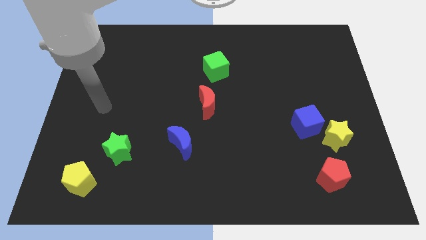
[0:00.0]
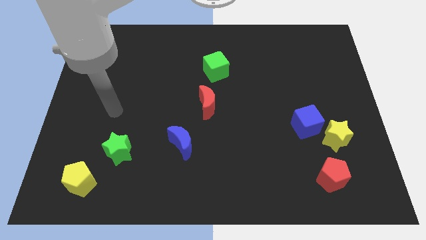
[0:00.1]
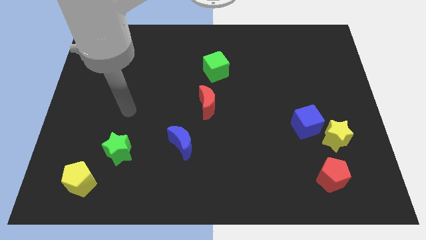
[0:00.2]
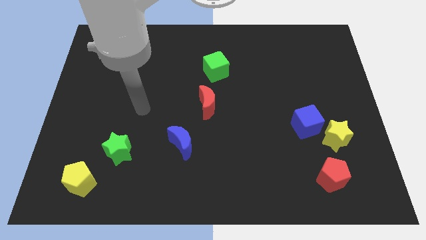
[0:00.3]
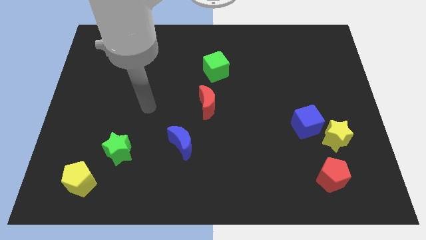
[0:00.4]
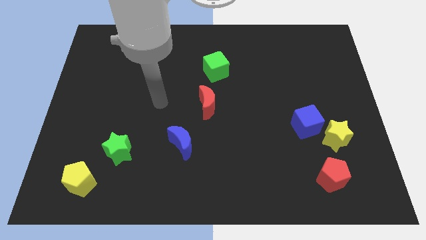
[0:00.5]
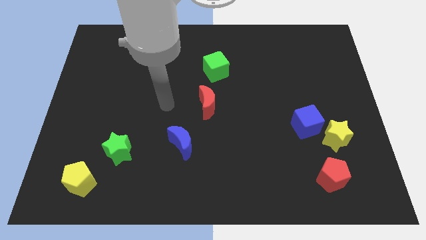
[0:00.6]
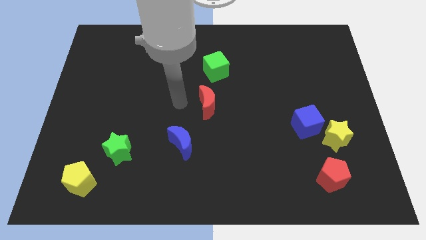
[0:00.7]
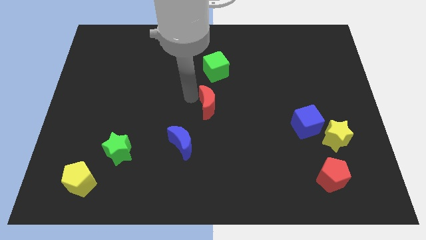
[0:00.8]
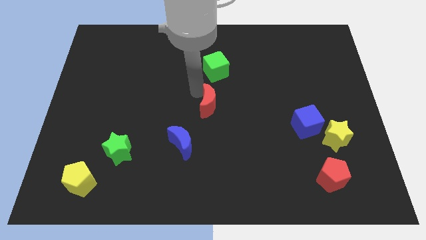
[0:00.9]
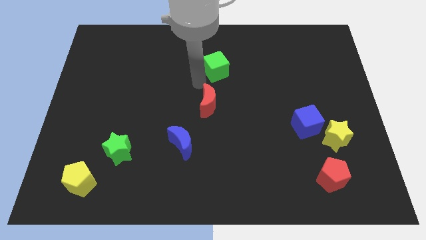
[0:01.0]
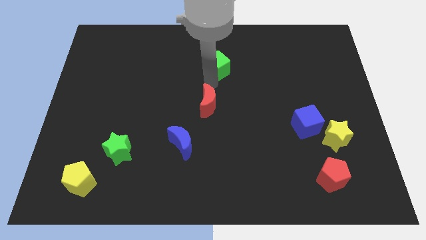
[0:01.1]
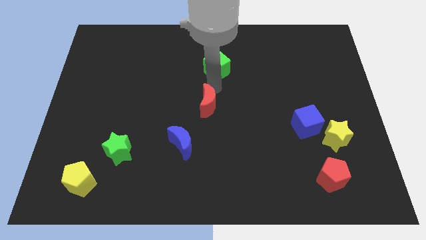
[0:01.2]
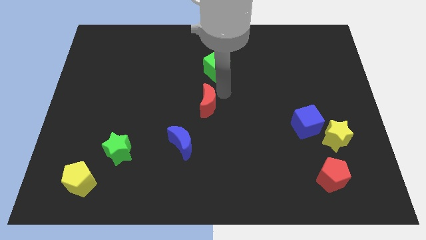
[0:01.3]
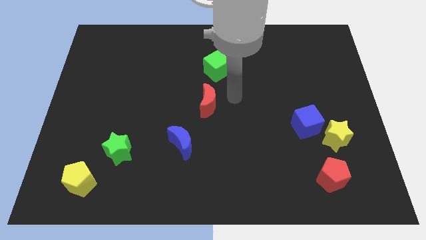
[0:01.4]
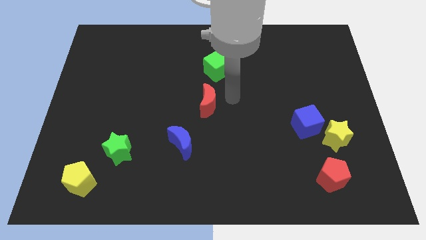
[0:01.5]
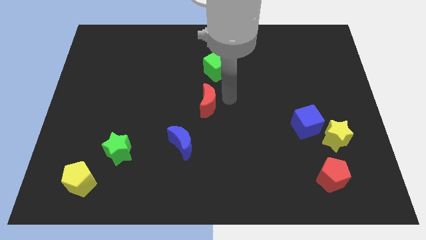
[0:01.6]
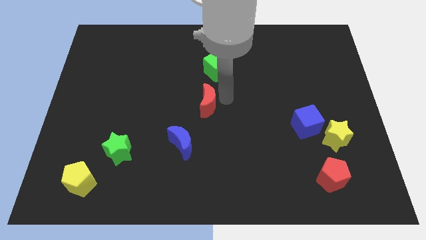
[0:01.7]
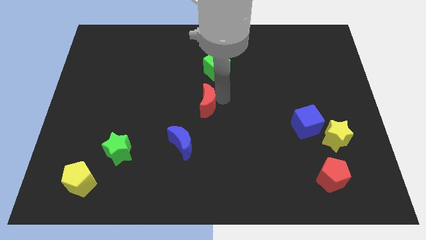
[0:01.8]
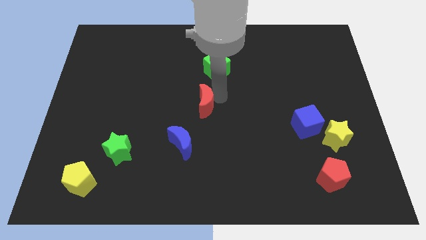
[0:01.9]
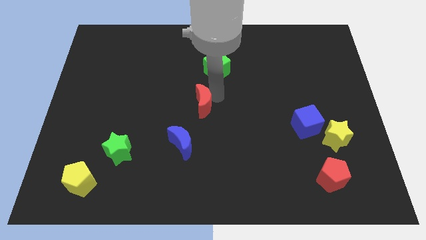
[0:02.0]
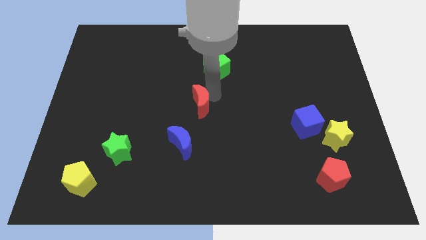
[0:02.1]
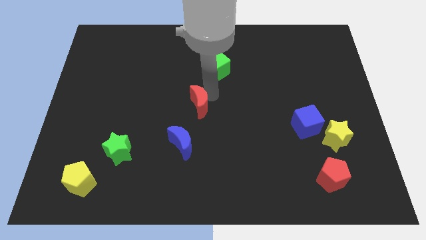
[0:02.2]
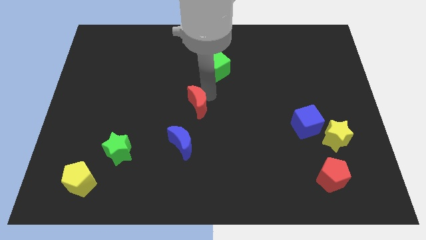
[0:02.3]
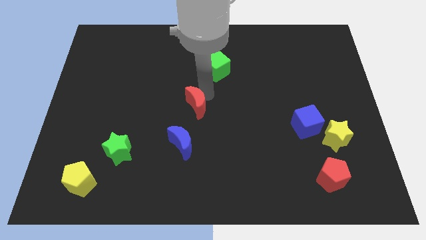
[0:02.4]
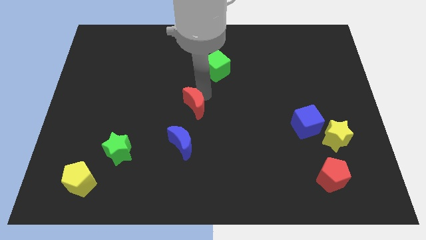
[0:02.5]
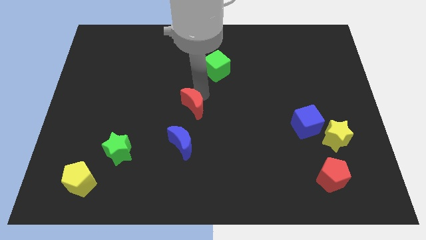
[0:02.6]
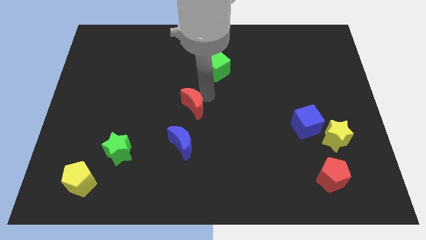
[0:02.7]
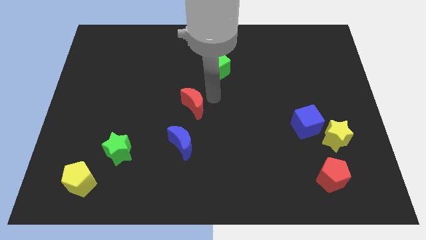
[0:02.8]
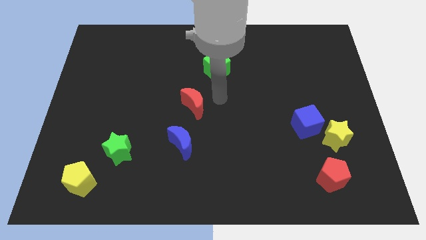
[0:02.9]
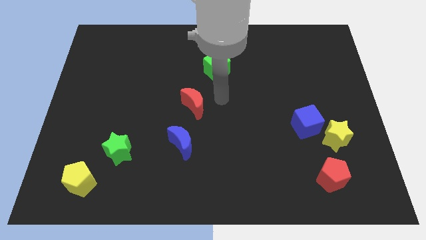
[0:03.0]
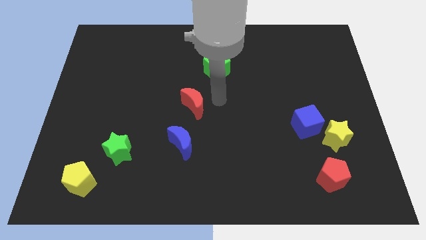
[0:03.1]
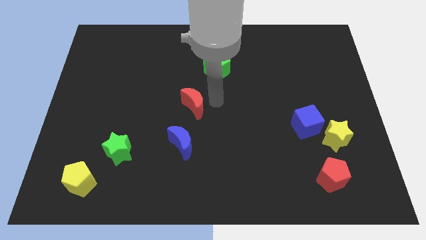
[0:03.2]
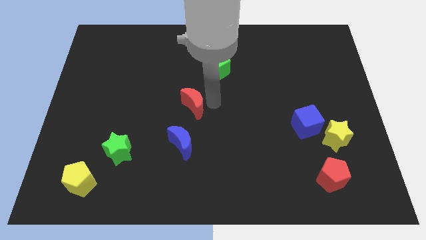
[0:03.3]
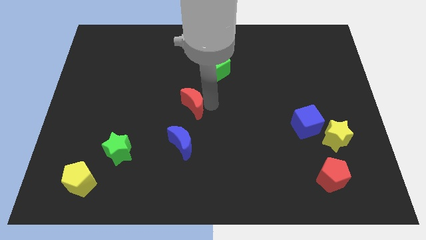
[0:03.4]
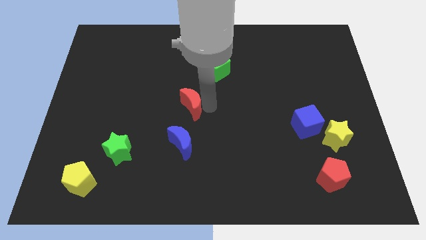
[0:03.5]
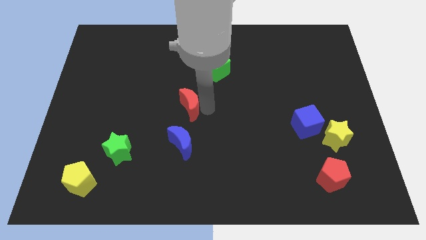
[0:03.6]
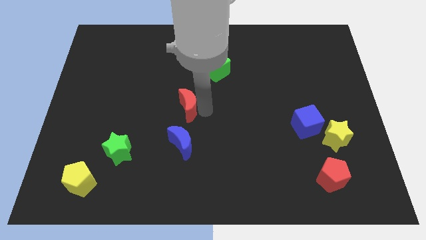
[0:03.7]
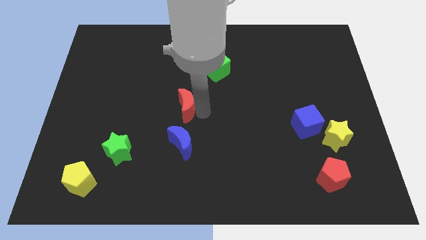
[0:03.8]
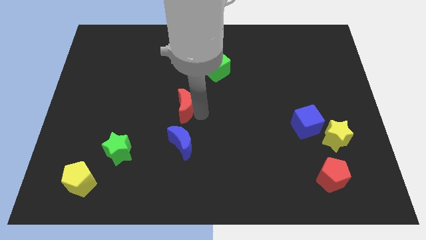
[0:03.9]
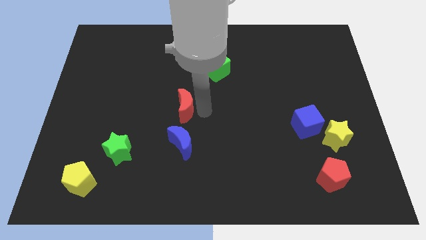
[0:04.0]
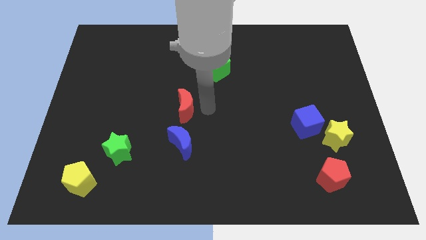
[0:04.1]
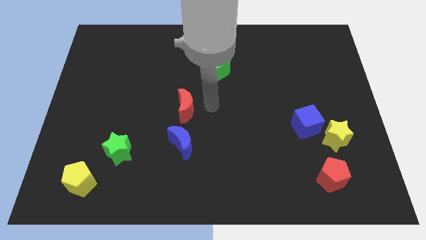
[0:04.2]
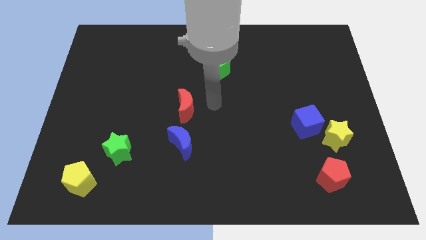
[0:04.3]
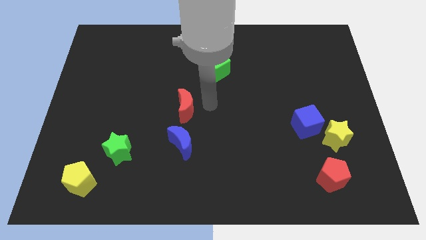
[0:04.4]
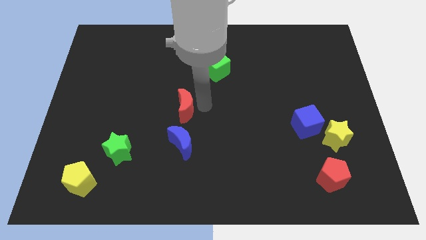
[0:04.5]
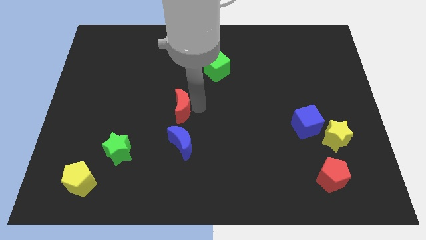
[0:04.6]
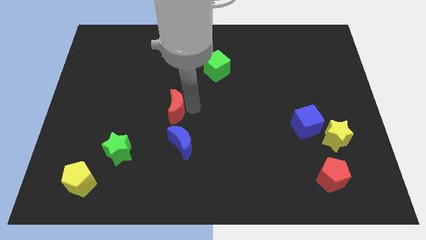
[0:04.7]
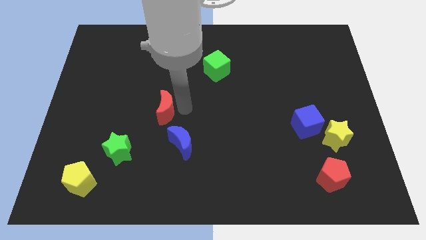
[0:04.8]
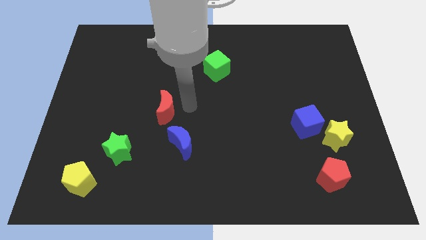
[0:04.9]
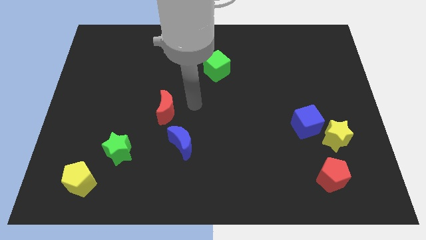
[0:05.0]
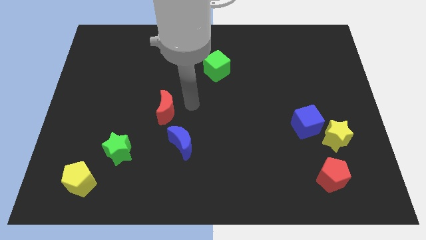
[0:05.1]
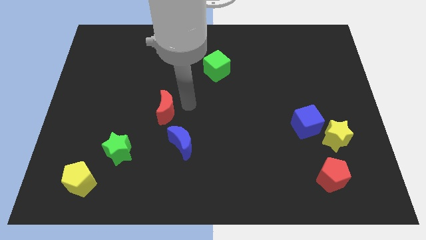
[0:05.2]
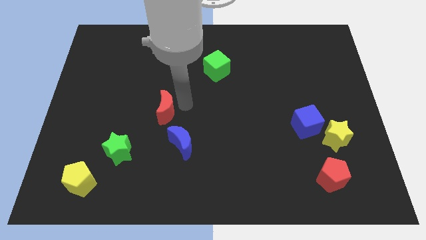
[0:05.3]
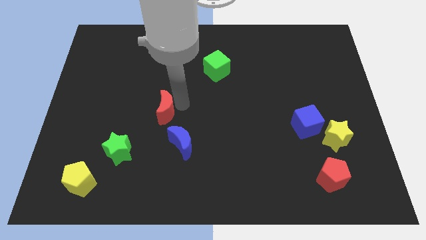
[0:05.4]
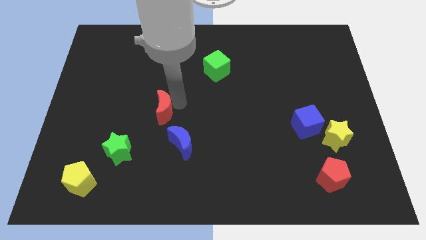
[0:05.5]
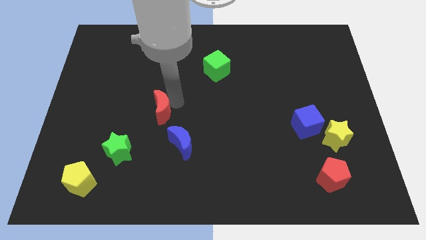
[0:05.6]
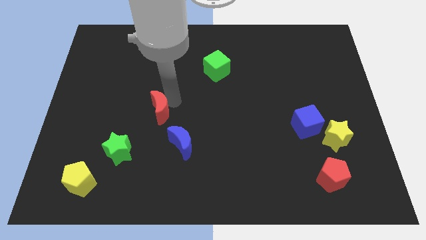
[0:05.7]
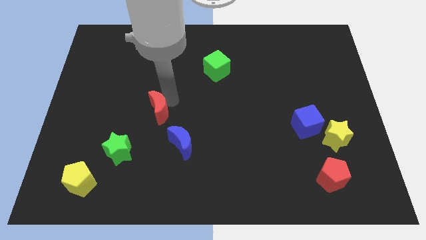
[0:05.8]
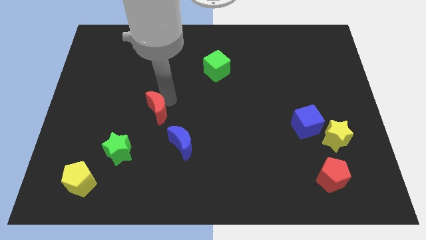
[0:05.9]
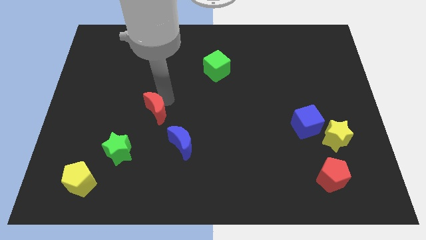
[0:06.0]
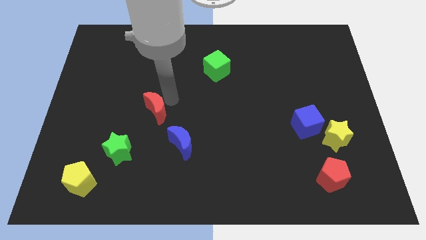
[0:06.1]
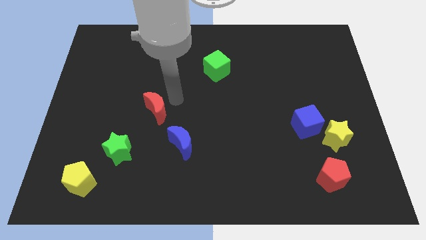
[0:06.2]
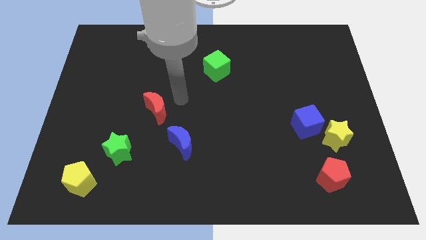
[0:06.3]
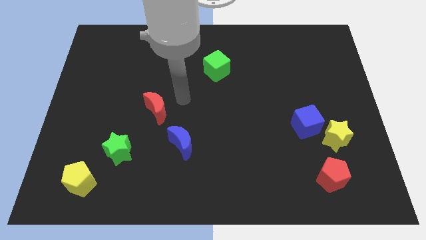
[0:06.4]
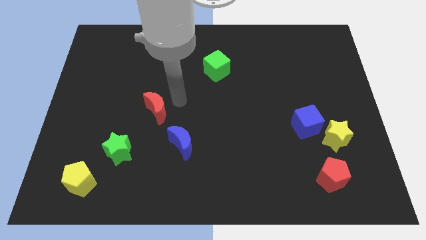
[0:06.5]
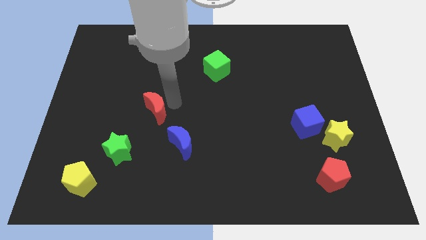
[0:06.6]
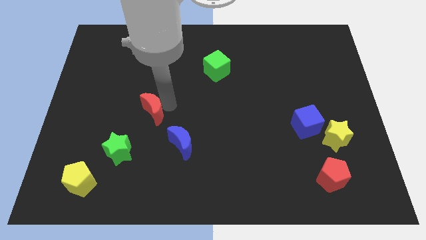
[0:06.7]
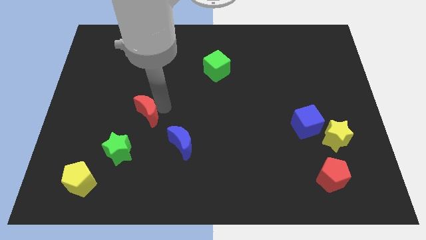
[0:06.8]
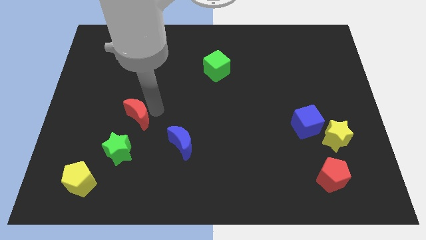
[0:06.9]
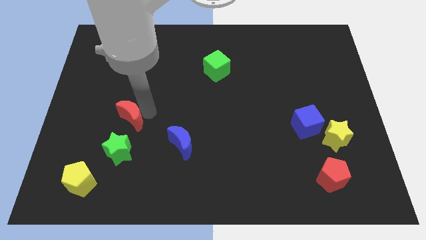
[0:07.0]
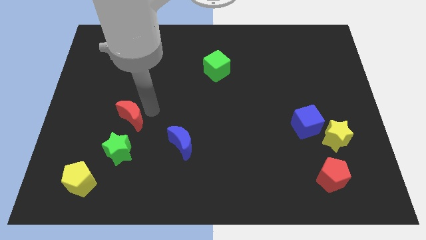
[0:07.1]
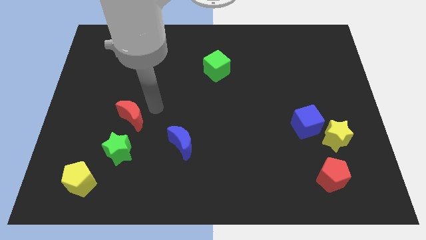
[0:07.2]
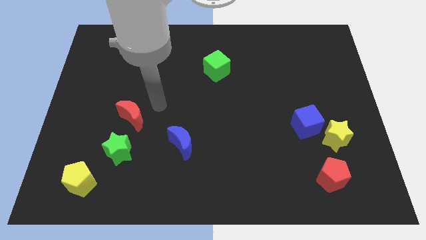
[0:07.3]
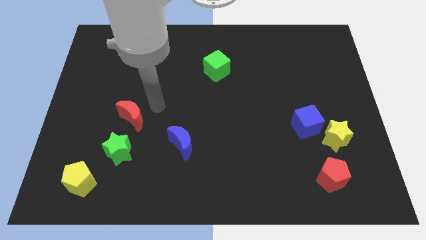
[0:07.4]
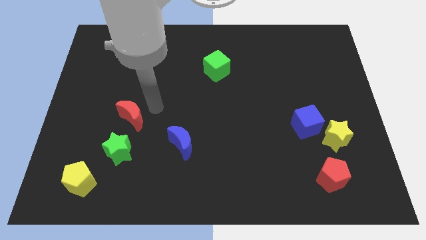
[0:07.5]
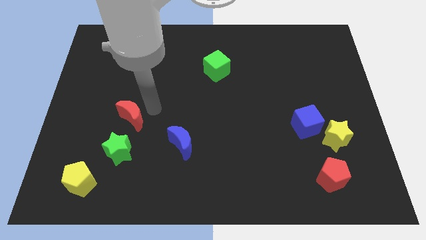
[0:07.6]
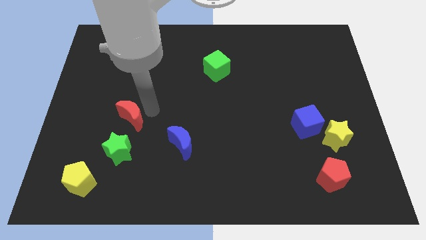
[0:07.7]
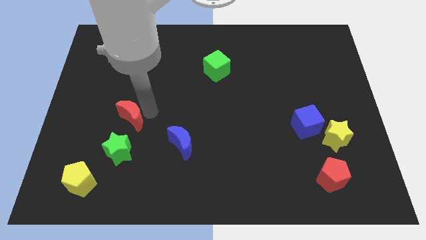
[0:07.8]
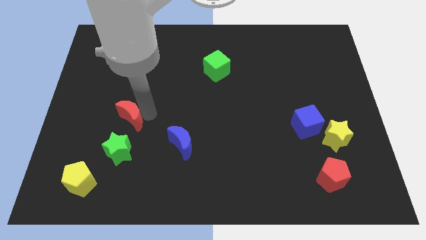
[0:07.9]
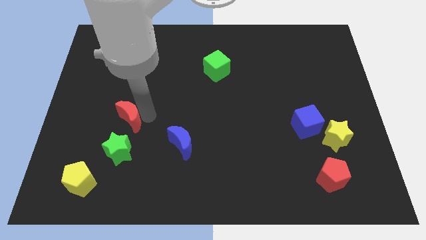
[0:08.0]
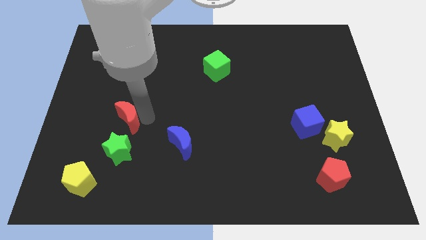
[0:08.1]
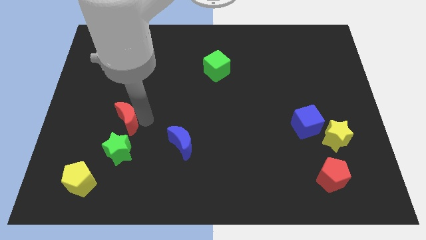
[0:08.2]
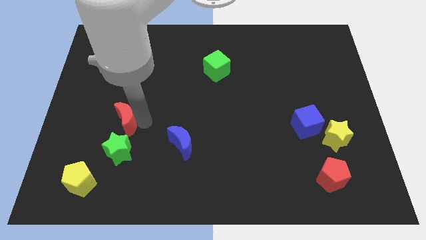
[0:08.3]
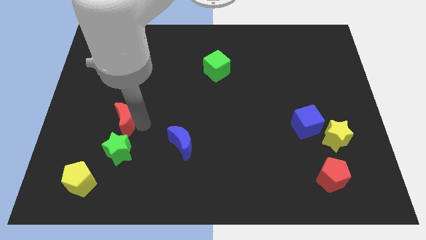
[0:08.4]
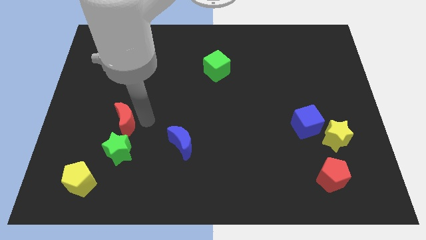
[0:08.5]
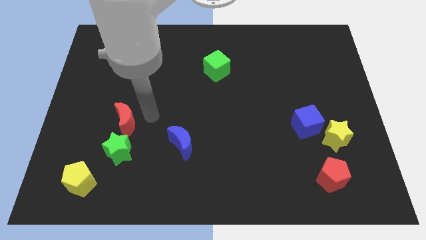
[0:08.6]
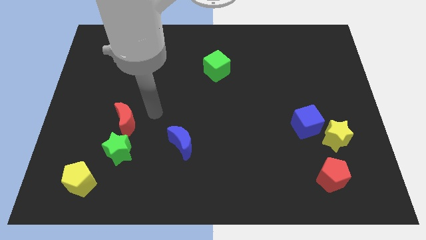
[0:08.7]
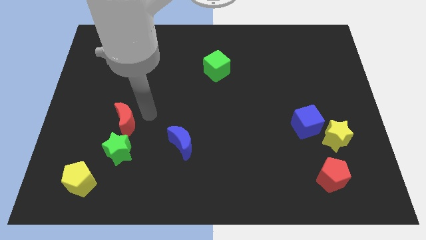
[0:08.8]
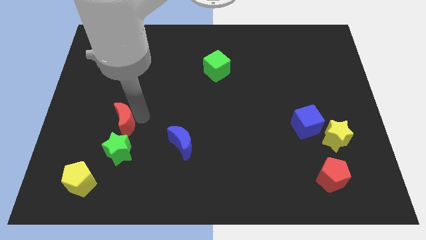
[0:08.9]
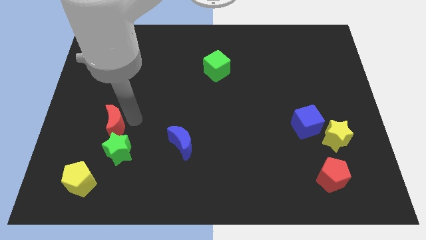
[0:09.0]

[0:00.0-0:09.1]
push the red moon to the top left side of the green star
